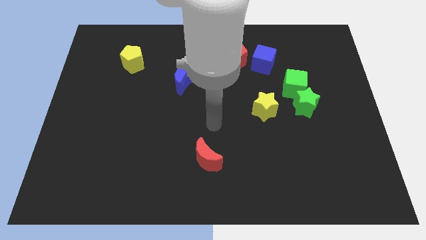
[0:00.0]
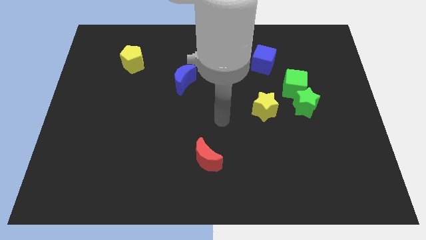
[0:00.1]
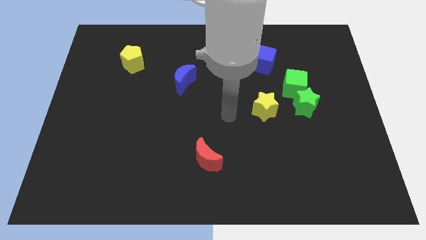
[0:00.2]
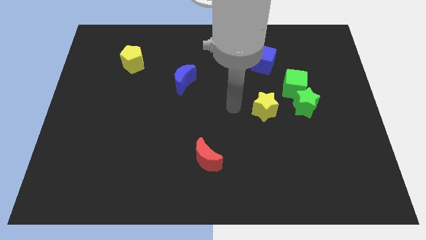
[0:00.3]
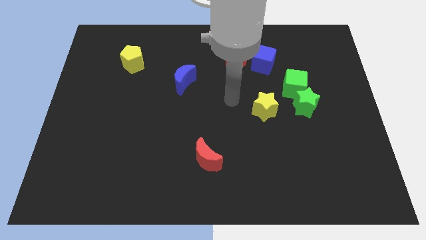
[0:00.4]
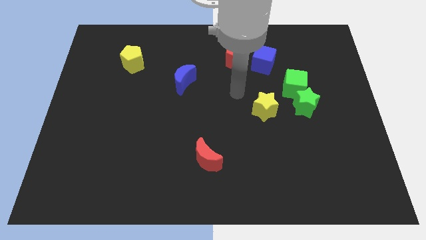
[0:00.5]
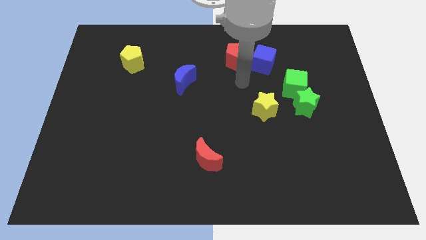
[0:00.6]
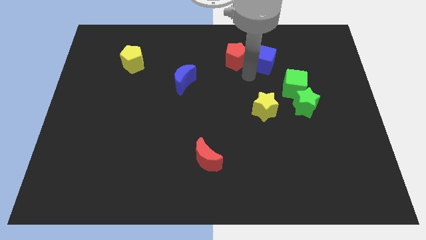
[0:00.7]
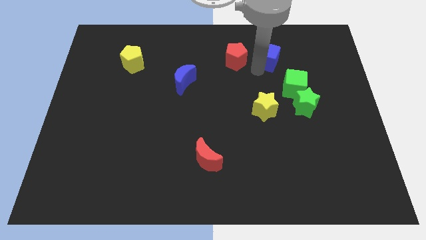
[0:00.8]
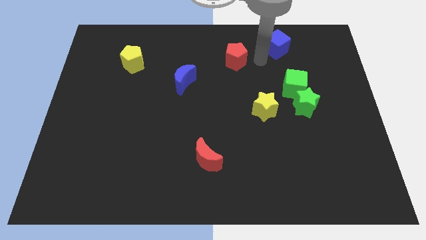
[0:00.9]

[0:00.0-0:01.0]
move the red pentagon away from the blue cube

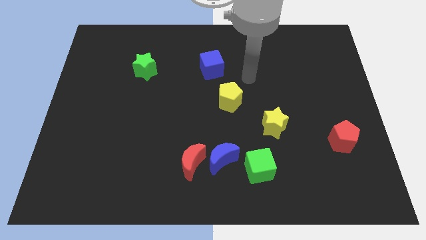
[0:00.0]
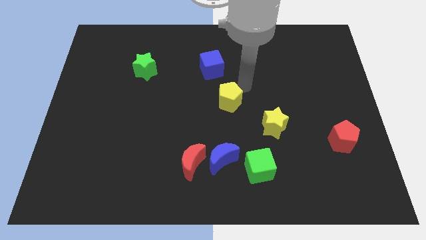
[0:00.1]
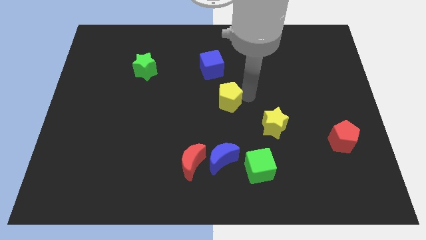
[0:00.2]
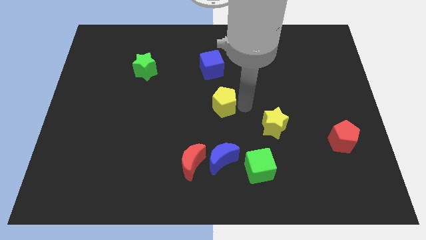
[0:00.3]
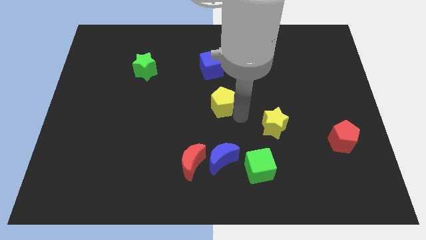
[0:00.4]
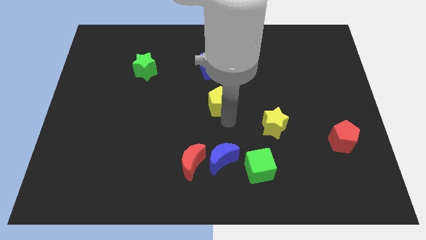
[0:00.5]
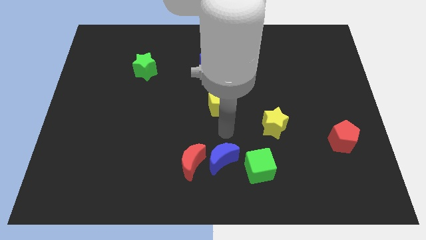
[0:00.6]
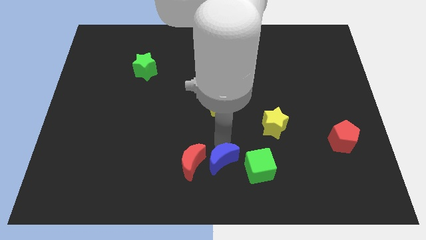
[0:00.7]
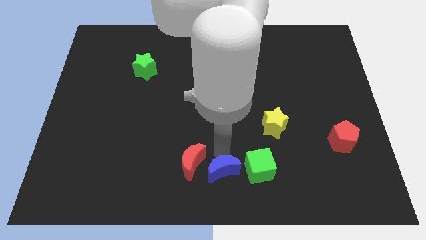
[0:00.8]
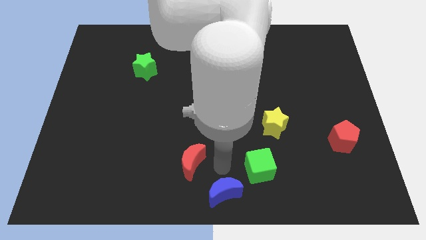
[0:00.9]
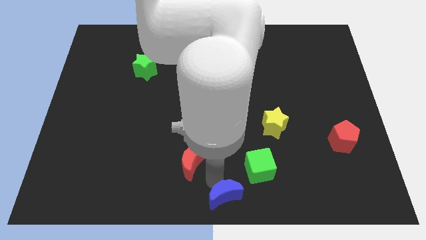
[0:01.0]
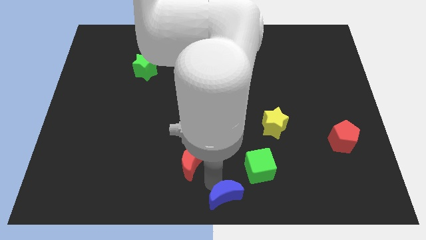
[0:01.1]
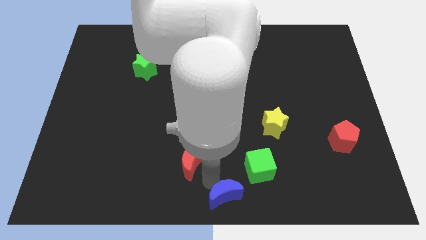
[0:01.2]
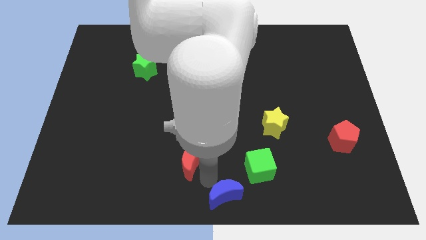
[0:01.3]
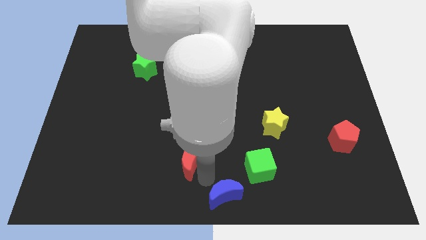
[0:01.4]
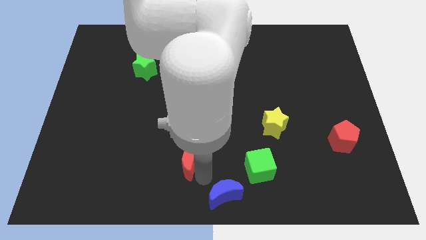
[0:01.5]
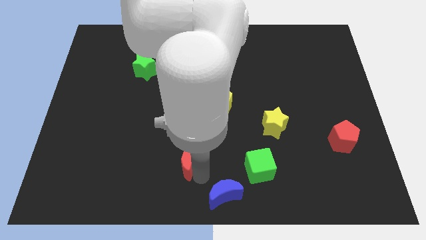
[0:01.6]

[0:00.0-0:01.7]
pull the red moon apart from the blue moon

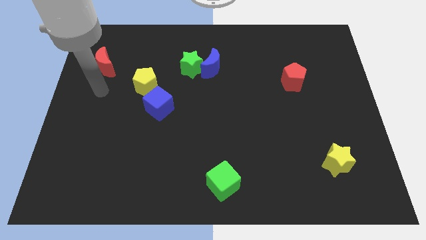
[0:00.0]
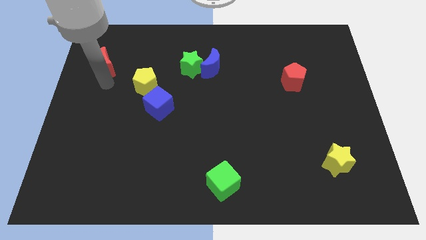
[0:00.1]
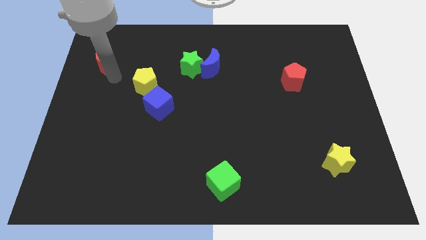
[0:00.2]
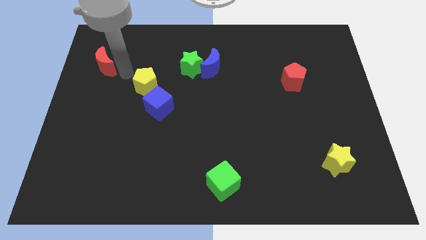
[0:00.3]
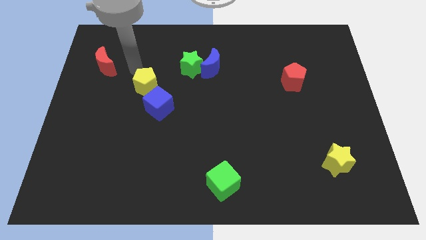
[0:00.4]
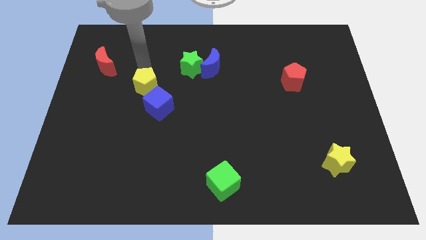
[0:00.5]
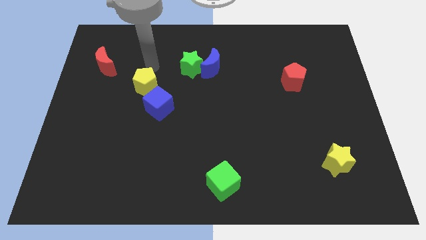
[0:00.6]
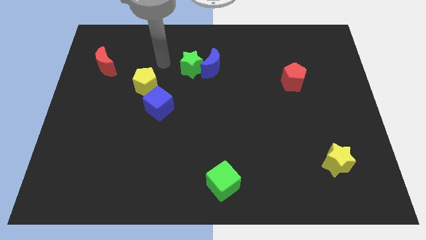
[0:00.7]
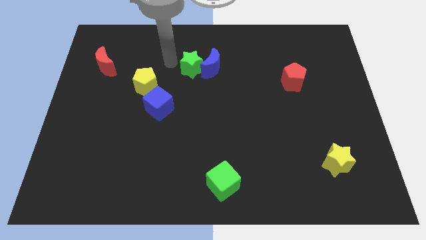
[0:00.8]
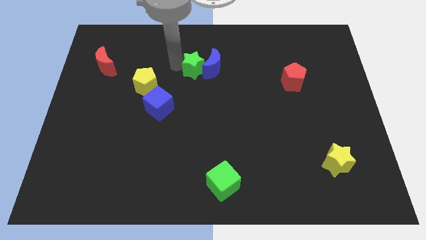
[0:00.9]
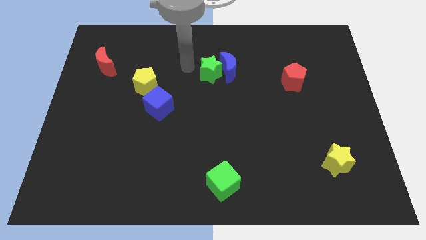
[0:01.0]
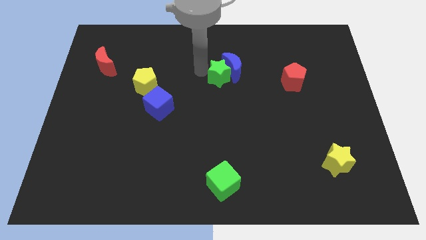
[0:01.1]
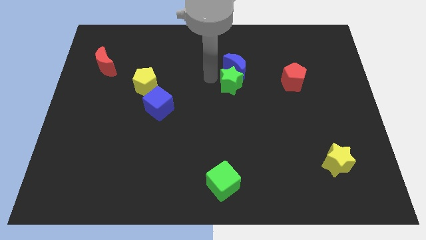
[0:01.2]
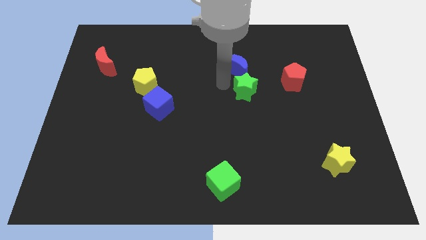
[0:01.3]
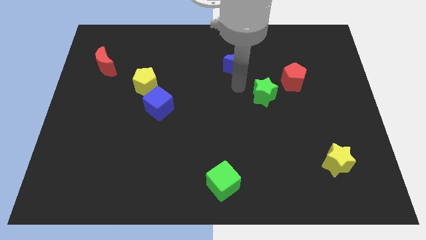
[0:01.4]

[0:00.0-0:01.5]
separate the blue moon from the green star

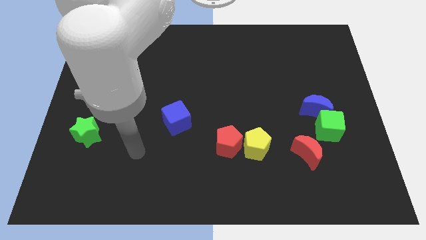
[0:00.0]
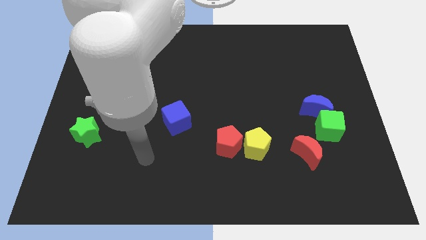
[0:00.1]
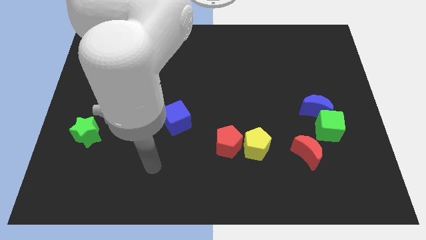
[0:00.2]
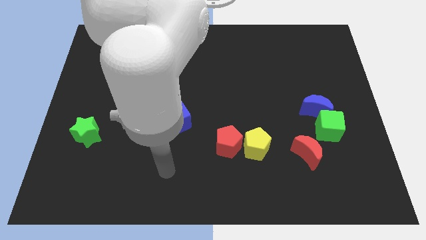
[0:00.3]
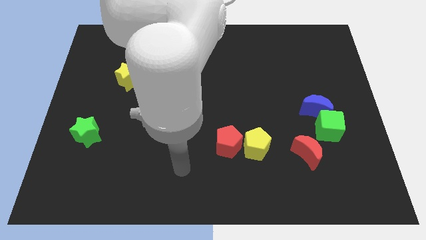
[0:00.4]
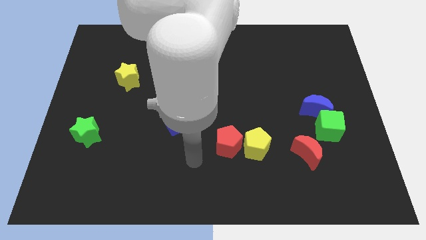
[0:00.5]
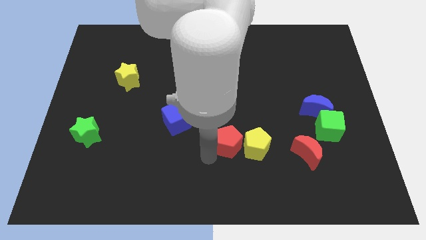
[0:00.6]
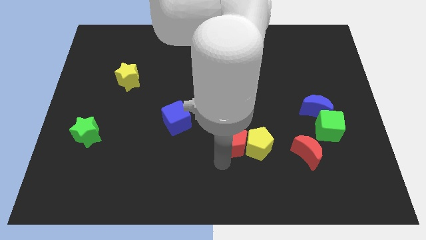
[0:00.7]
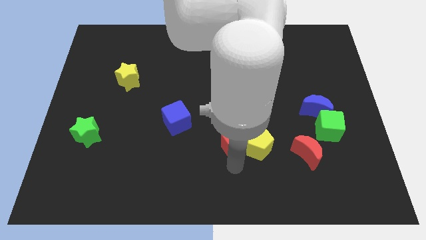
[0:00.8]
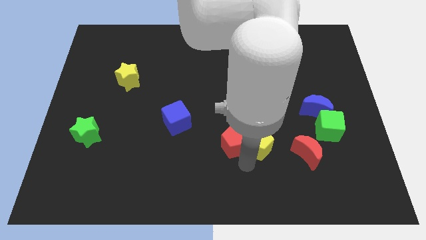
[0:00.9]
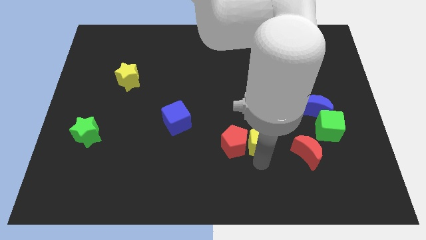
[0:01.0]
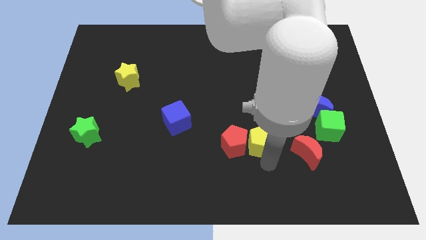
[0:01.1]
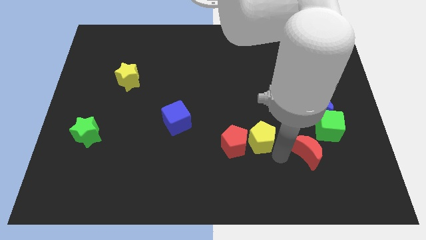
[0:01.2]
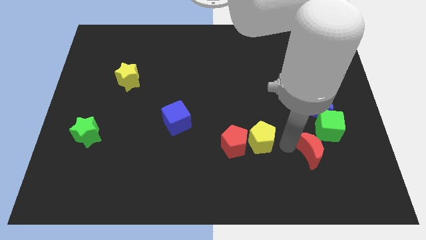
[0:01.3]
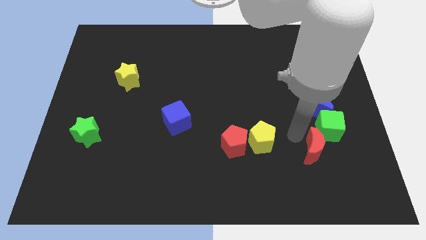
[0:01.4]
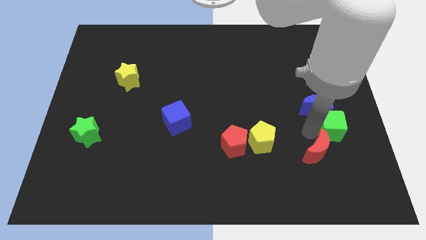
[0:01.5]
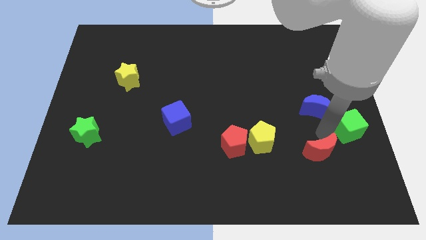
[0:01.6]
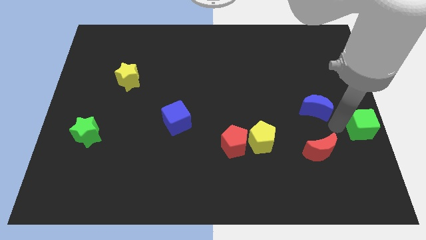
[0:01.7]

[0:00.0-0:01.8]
separate the blue moon from the green cube

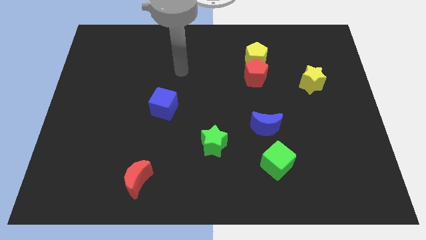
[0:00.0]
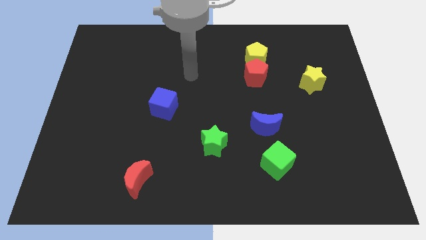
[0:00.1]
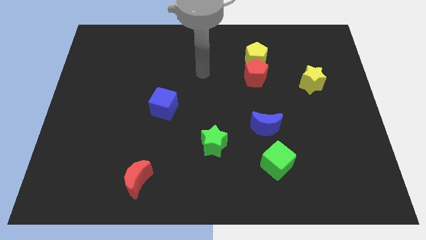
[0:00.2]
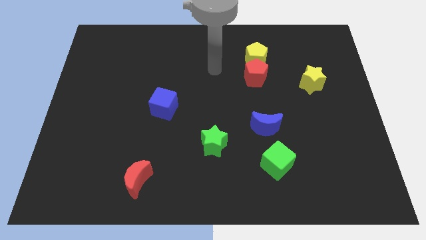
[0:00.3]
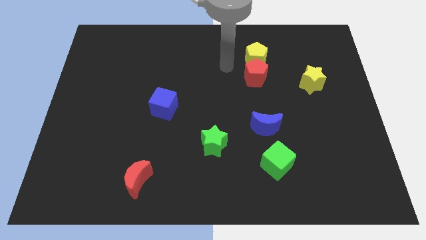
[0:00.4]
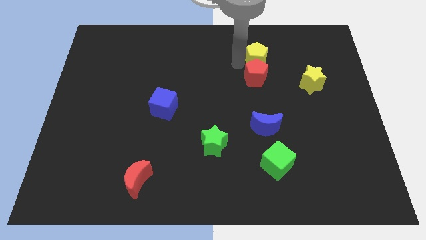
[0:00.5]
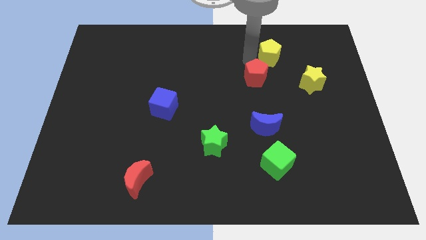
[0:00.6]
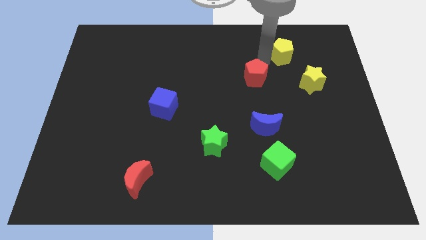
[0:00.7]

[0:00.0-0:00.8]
separate the red pentagon from the yellow pentagon

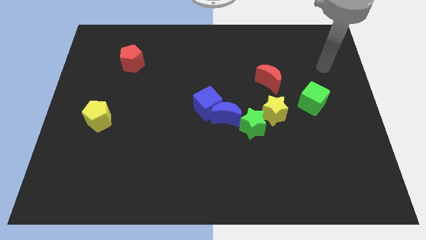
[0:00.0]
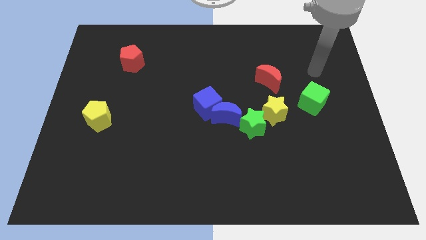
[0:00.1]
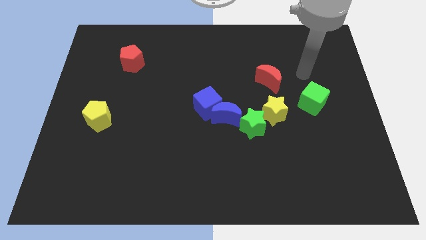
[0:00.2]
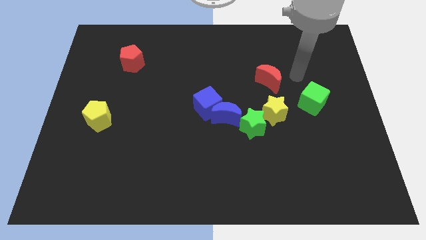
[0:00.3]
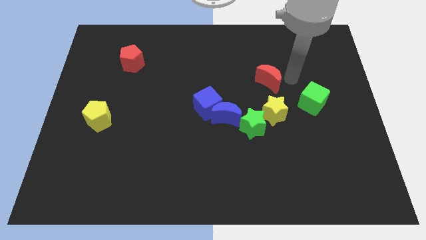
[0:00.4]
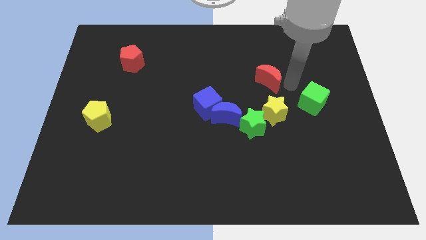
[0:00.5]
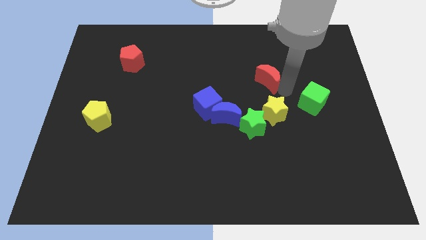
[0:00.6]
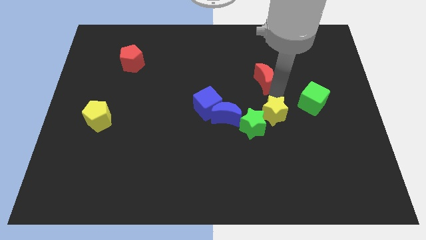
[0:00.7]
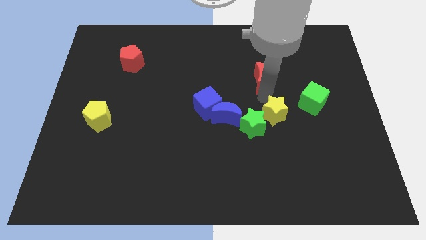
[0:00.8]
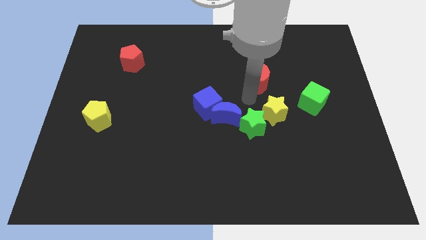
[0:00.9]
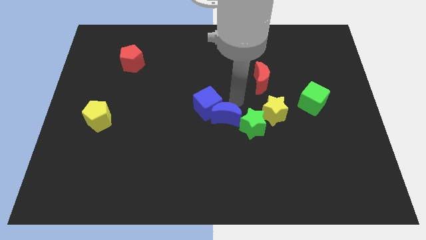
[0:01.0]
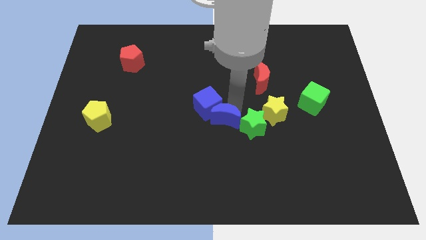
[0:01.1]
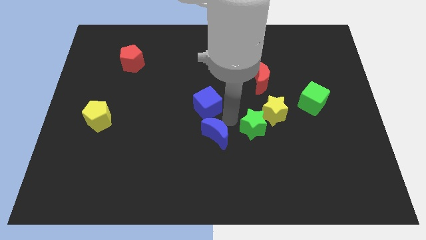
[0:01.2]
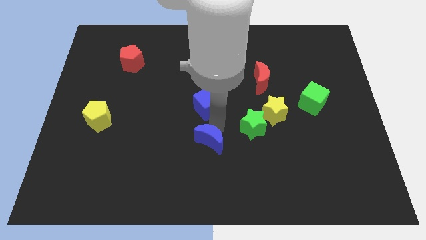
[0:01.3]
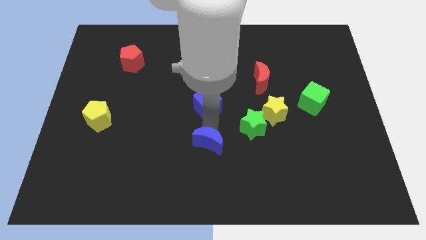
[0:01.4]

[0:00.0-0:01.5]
move the blue cube away from the blue moon

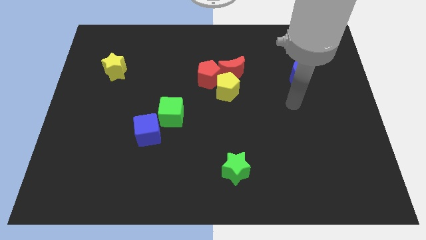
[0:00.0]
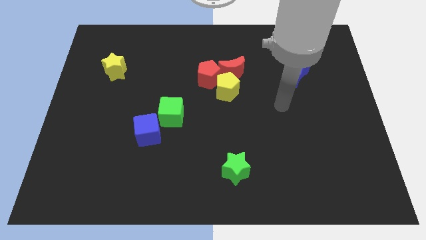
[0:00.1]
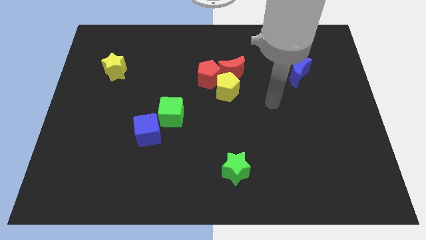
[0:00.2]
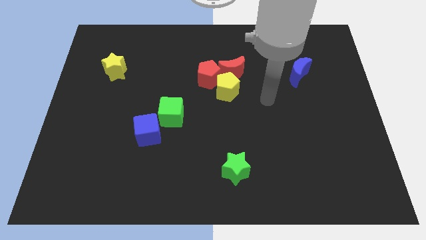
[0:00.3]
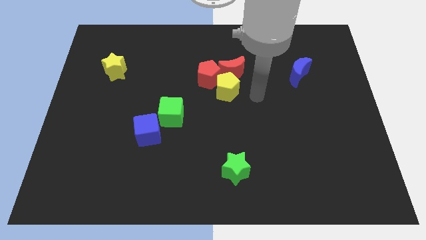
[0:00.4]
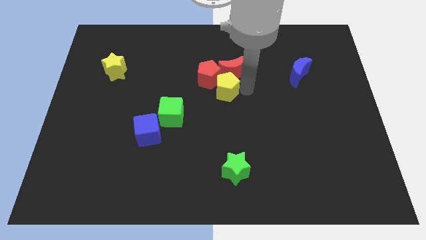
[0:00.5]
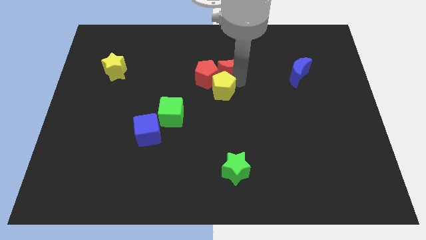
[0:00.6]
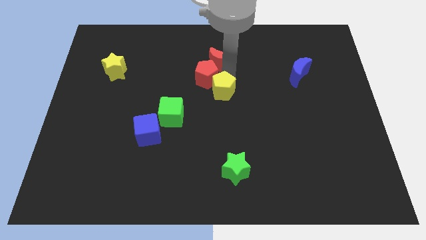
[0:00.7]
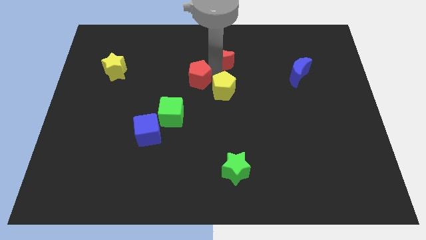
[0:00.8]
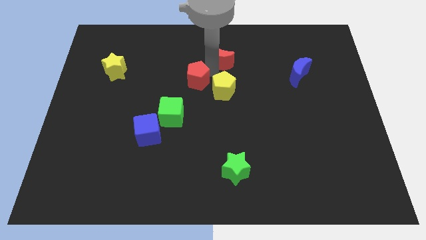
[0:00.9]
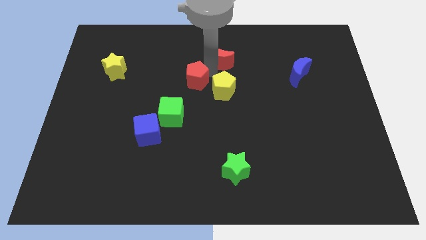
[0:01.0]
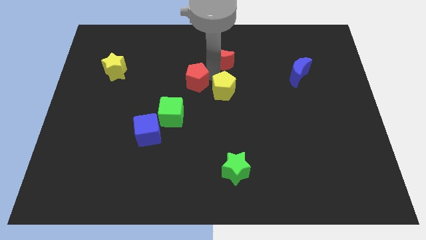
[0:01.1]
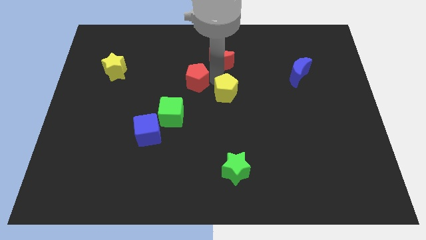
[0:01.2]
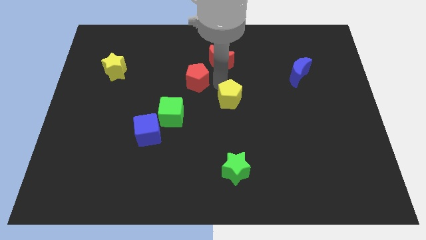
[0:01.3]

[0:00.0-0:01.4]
move the yellow pentagon away from the red pentagon and red moon
